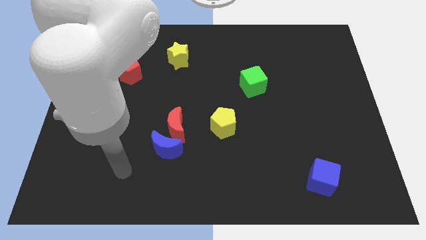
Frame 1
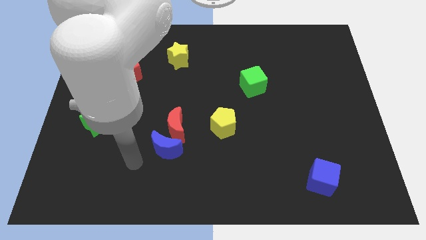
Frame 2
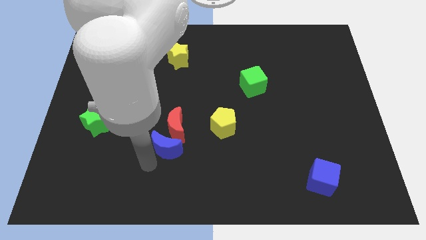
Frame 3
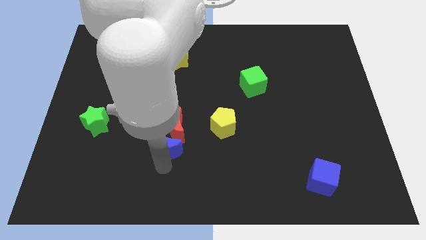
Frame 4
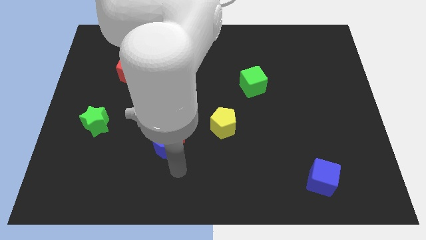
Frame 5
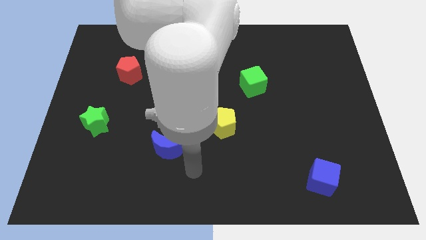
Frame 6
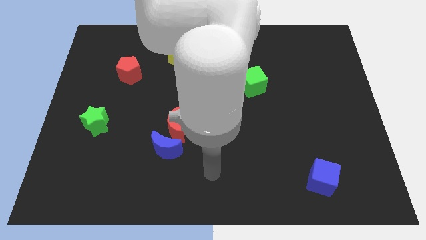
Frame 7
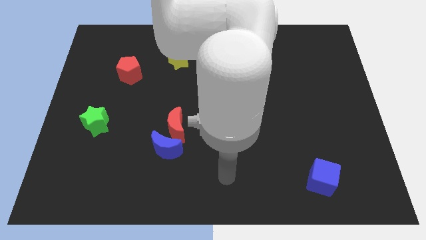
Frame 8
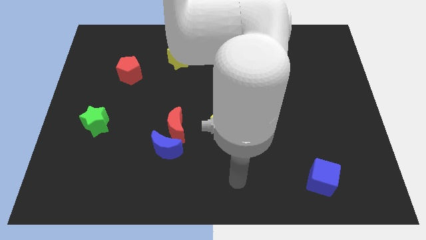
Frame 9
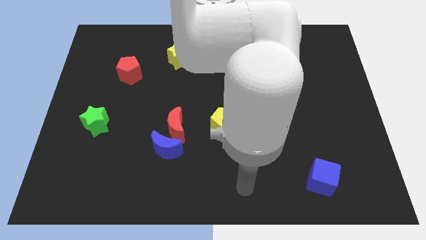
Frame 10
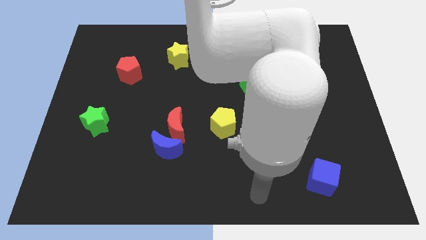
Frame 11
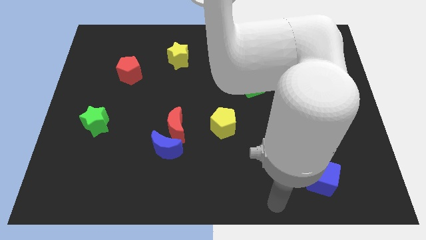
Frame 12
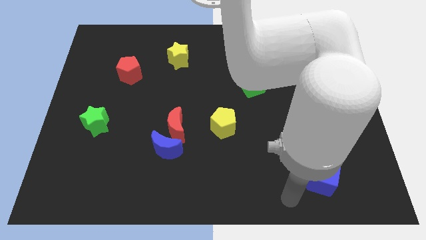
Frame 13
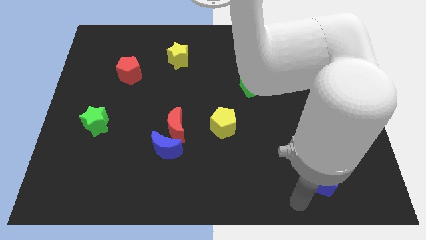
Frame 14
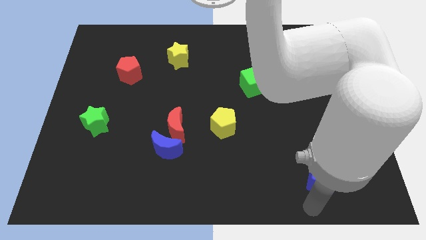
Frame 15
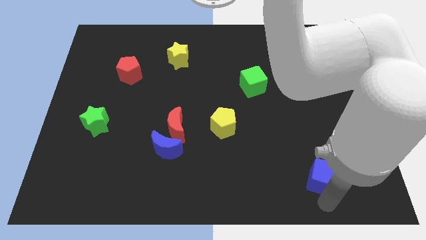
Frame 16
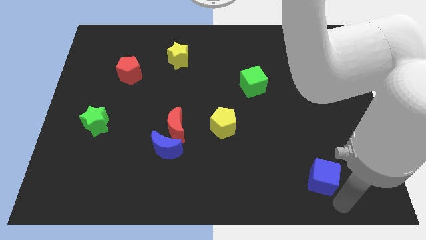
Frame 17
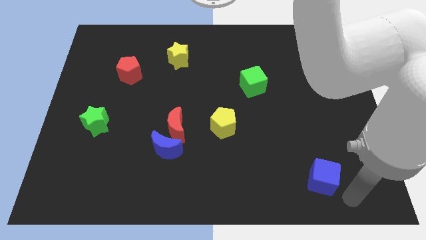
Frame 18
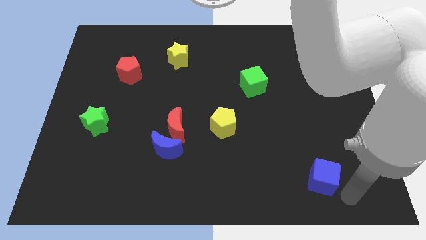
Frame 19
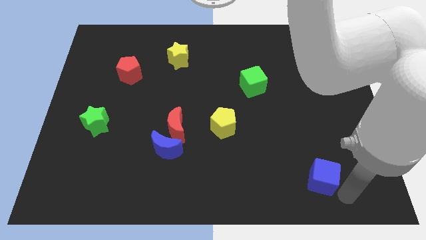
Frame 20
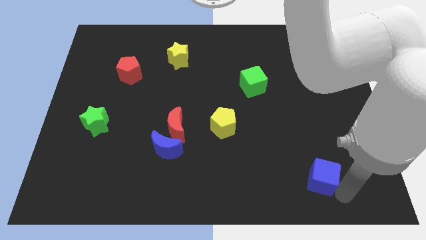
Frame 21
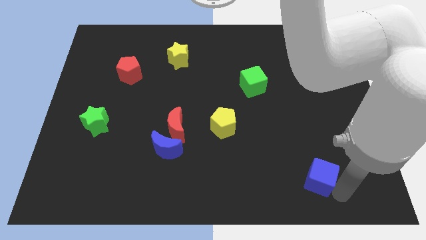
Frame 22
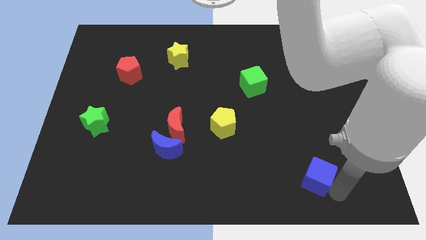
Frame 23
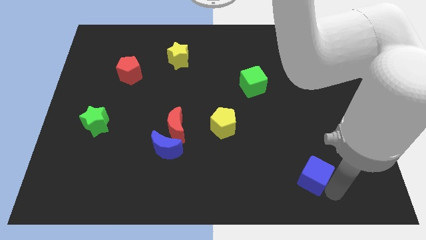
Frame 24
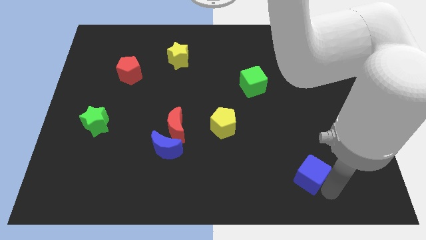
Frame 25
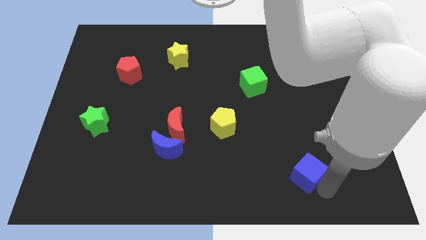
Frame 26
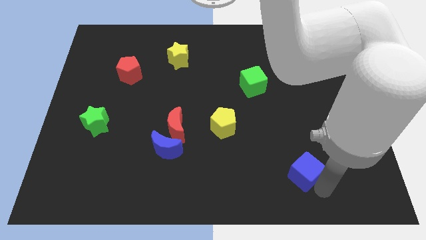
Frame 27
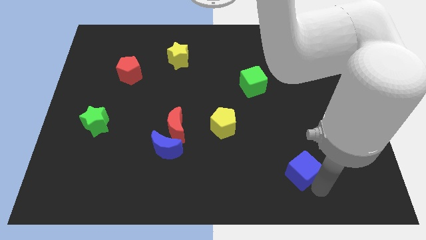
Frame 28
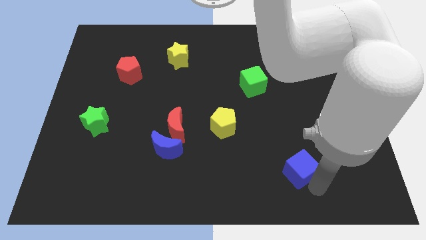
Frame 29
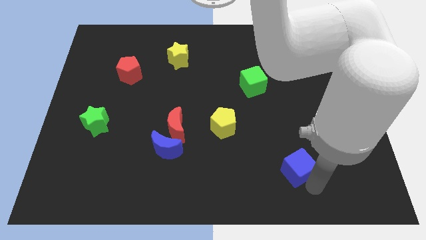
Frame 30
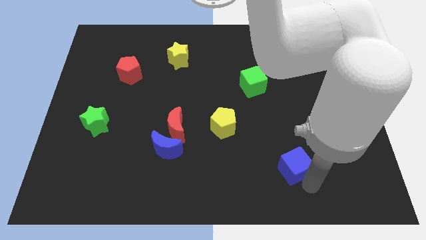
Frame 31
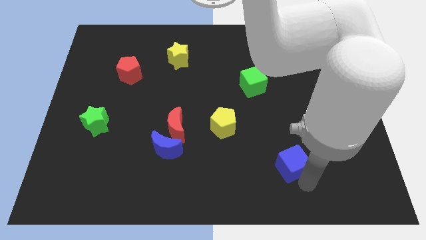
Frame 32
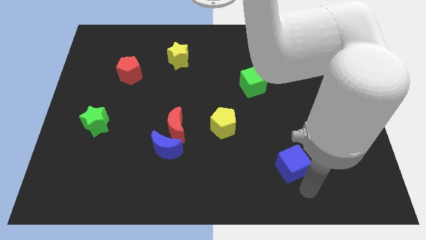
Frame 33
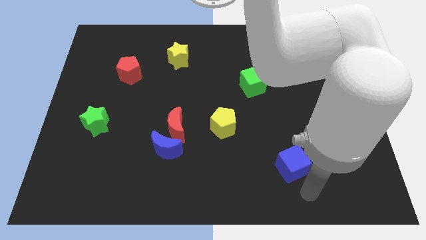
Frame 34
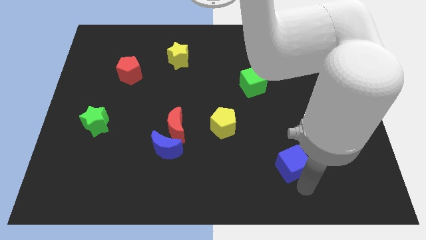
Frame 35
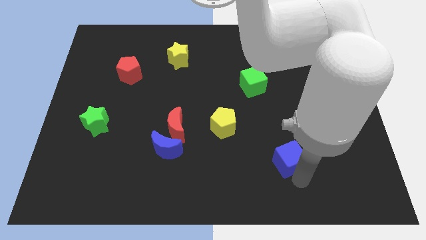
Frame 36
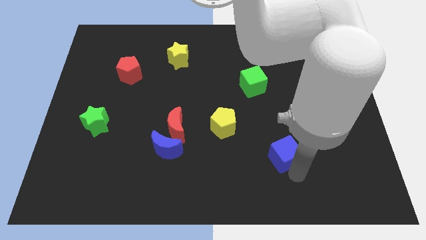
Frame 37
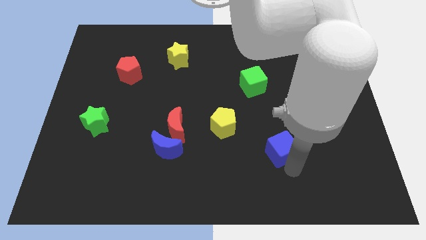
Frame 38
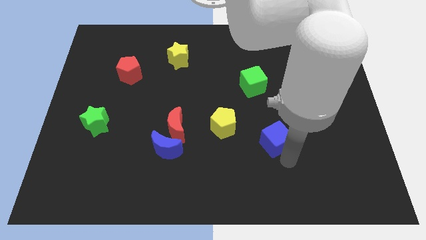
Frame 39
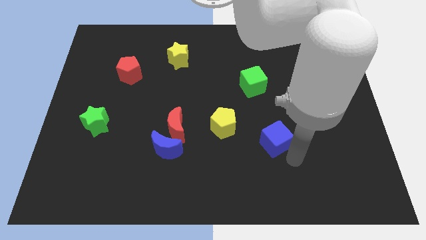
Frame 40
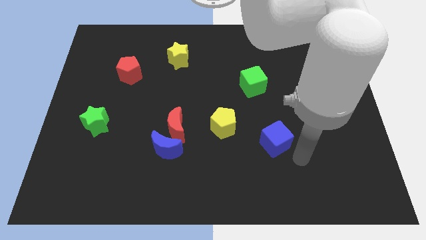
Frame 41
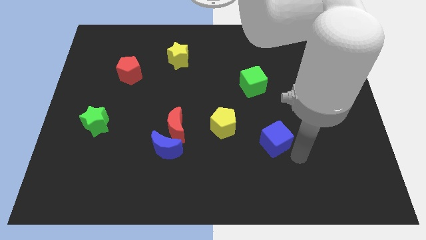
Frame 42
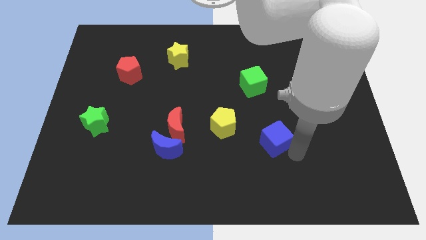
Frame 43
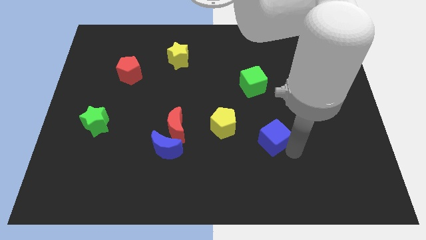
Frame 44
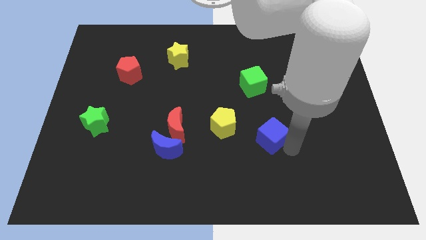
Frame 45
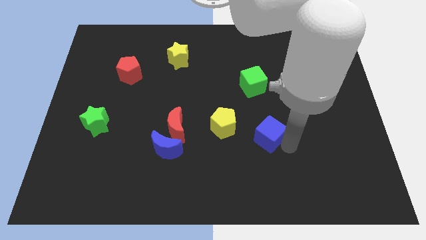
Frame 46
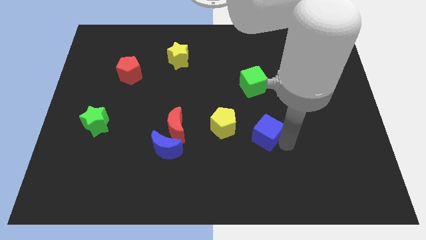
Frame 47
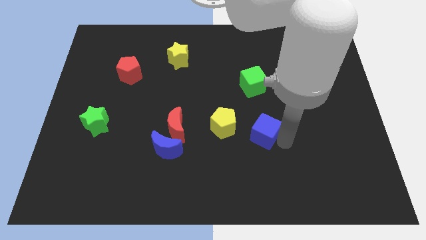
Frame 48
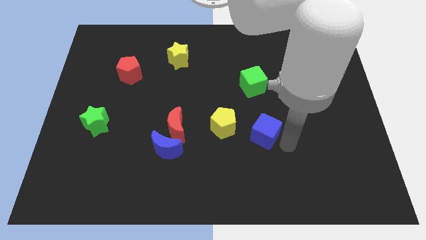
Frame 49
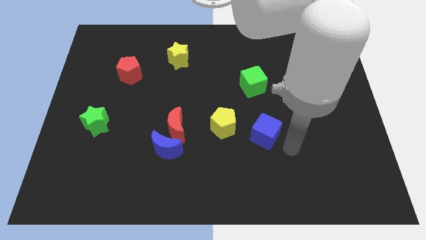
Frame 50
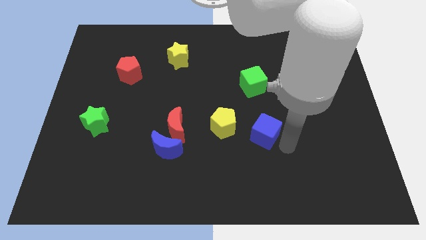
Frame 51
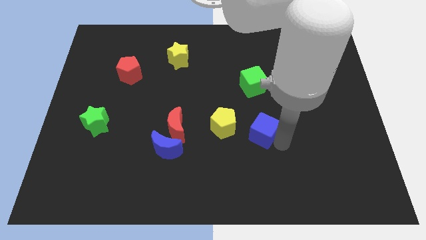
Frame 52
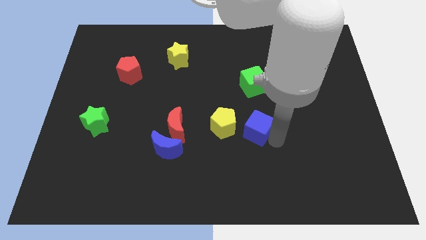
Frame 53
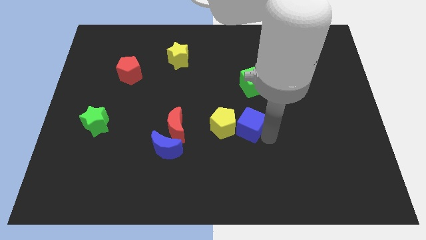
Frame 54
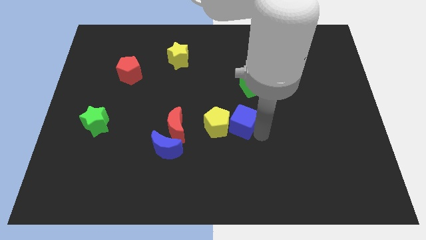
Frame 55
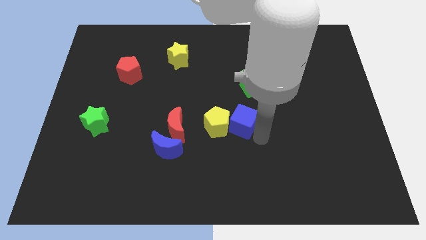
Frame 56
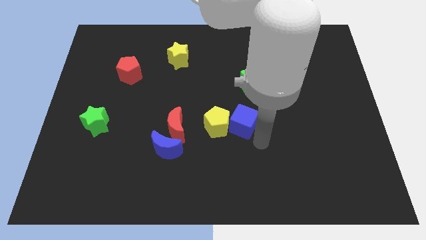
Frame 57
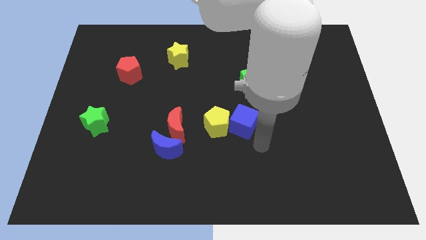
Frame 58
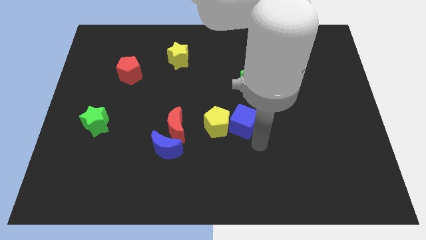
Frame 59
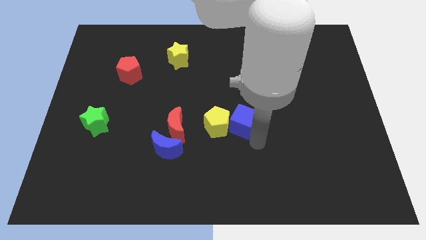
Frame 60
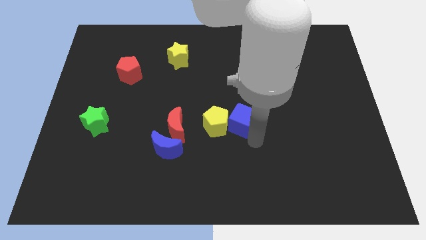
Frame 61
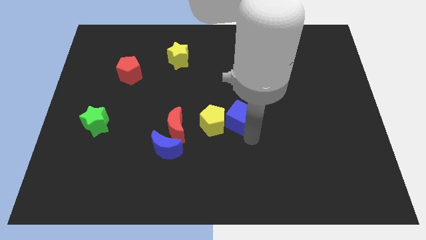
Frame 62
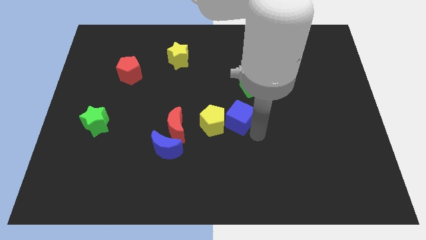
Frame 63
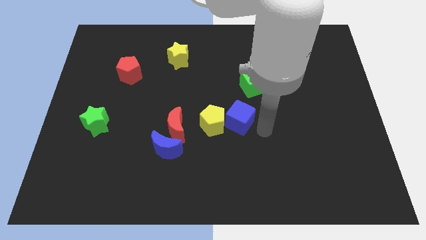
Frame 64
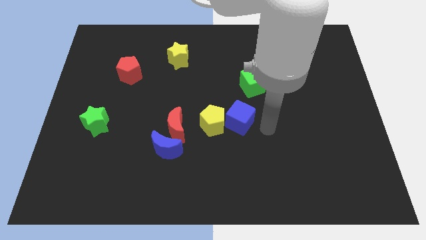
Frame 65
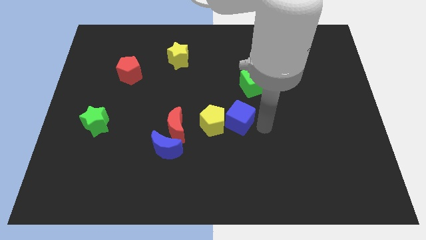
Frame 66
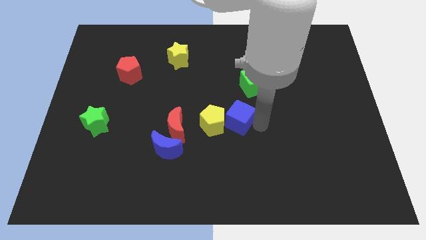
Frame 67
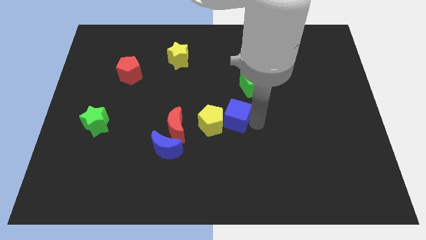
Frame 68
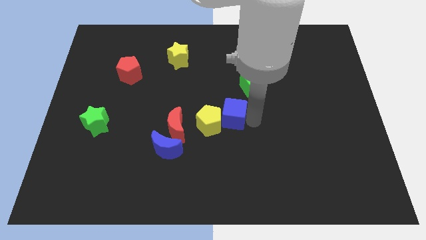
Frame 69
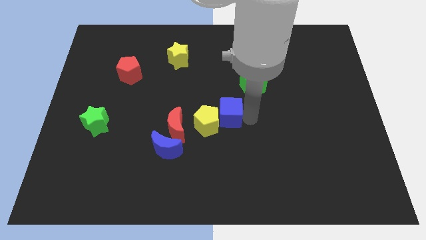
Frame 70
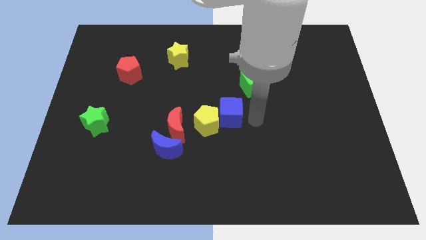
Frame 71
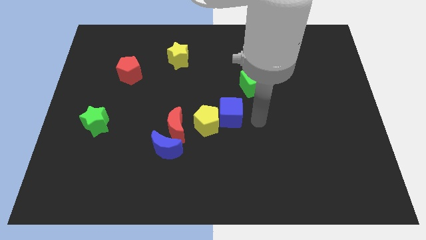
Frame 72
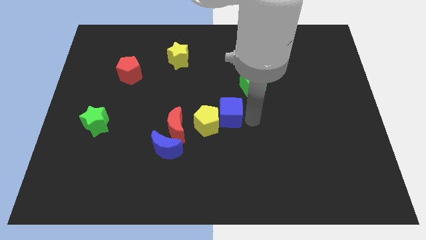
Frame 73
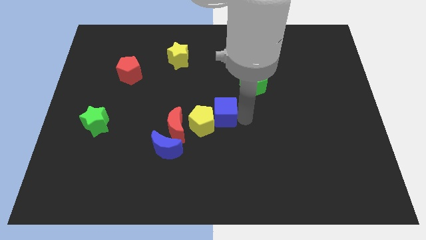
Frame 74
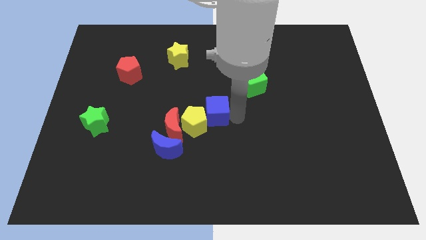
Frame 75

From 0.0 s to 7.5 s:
slide the blue cube to the top right of the red moon
